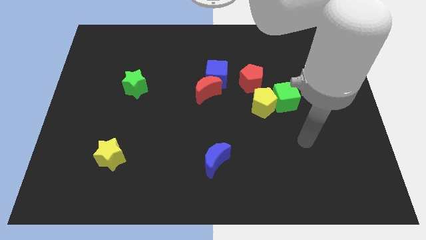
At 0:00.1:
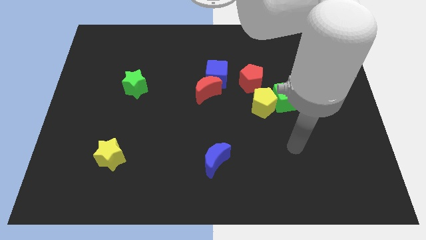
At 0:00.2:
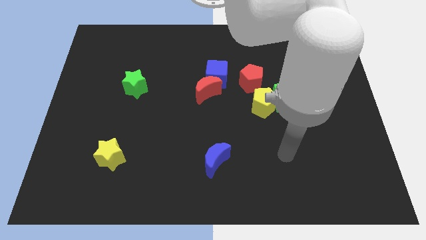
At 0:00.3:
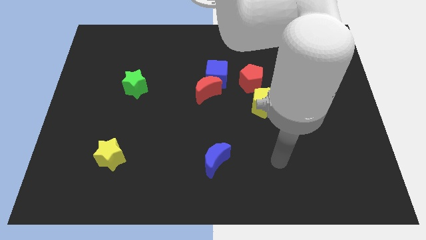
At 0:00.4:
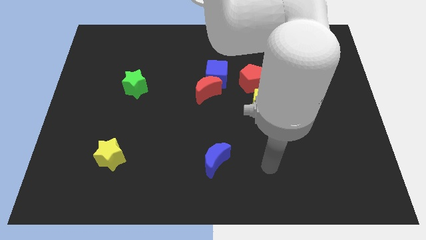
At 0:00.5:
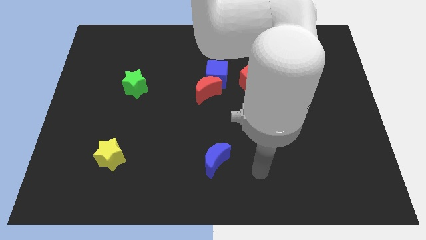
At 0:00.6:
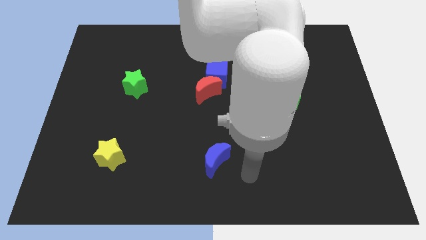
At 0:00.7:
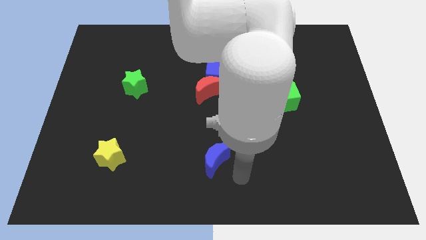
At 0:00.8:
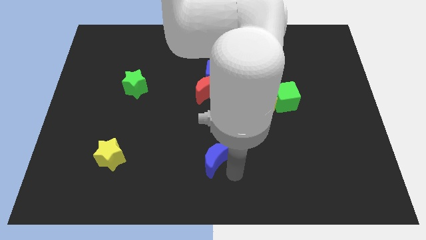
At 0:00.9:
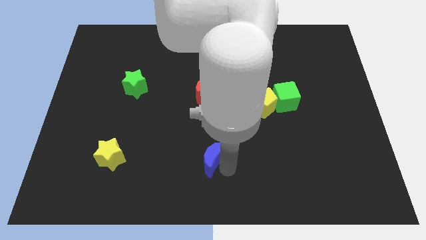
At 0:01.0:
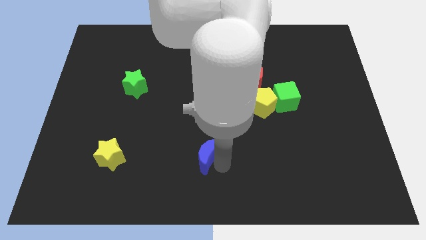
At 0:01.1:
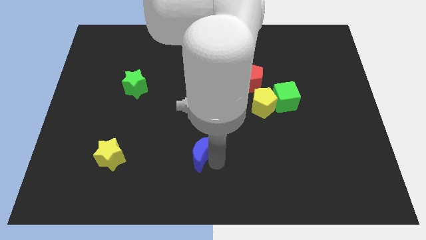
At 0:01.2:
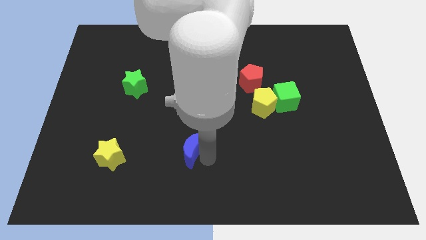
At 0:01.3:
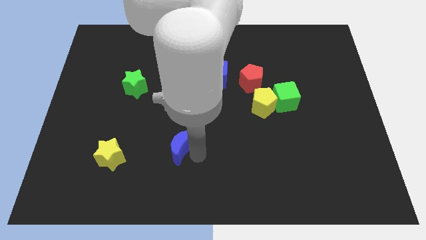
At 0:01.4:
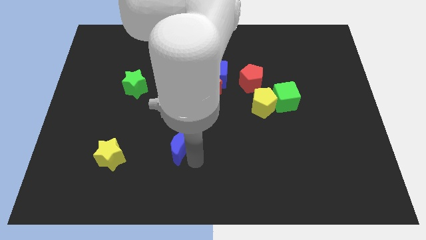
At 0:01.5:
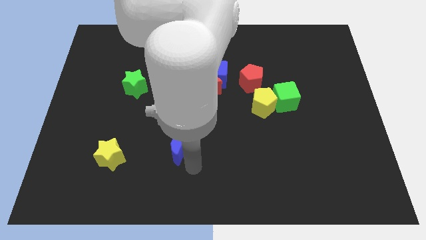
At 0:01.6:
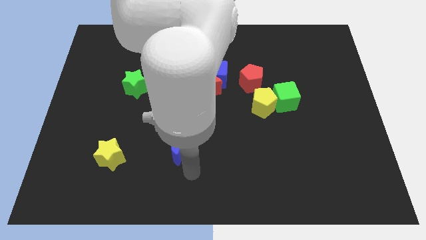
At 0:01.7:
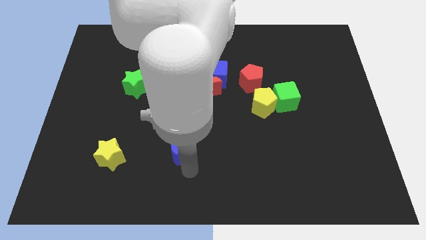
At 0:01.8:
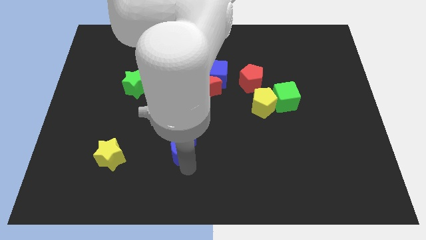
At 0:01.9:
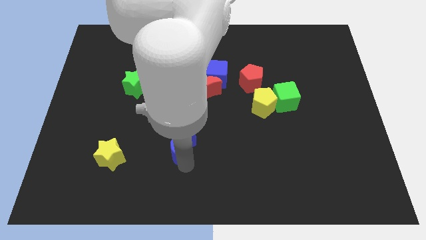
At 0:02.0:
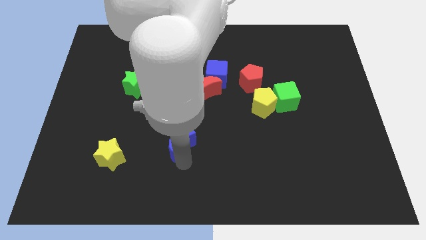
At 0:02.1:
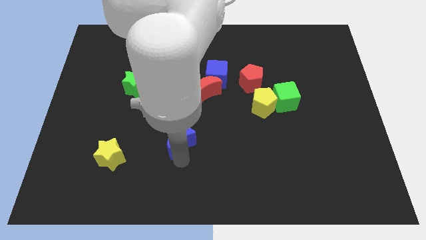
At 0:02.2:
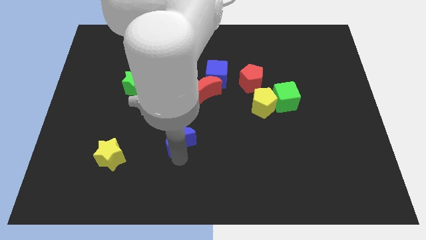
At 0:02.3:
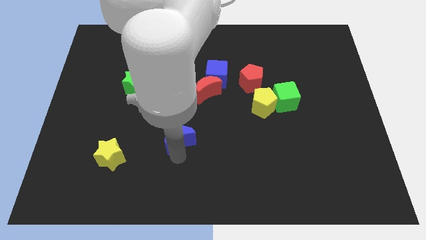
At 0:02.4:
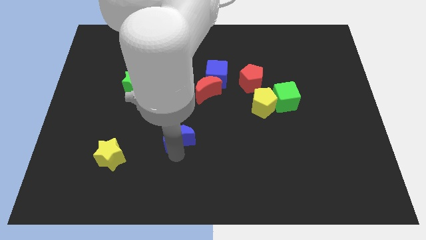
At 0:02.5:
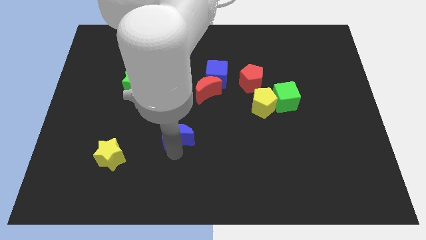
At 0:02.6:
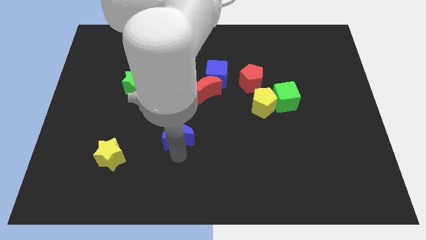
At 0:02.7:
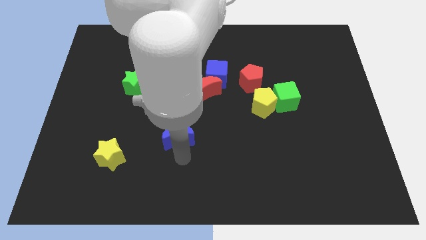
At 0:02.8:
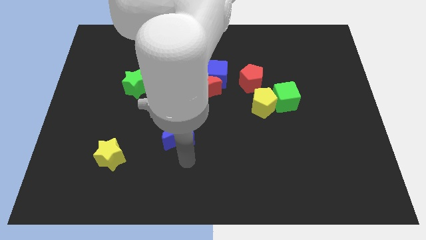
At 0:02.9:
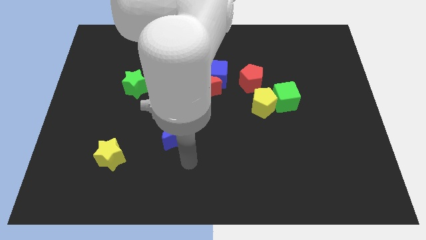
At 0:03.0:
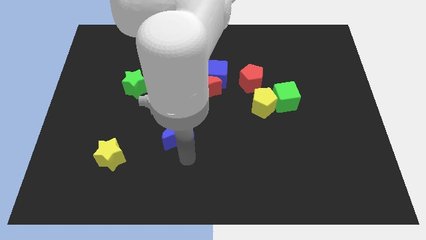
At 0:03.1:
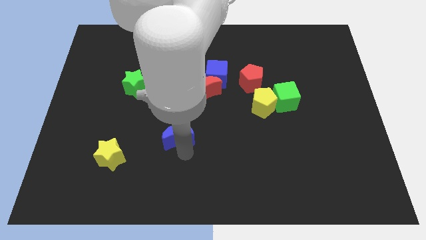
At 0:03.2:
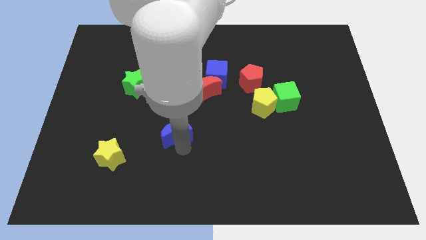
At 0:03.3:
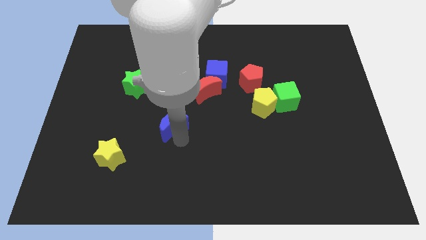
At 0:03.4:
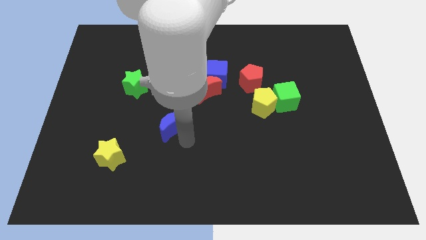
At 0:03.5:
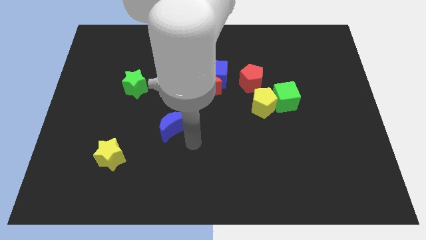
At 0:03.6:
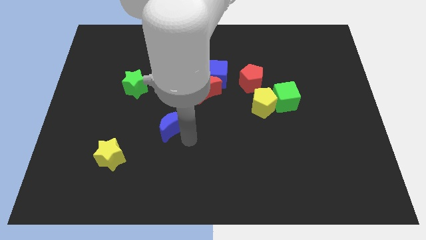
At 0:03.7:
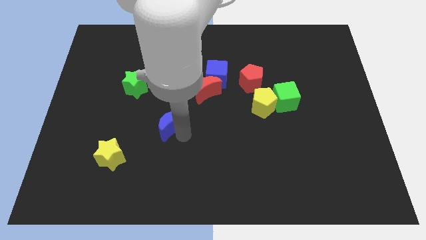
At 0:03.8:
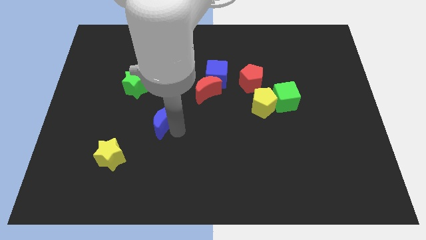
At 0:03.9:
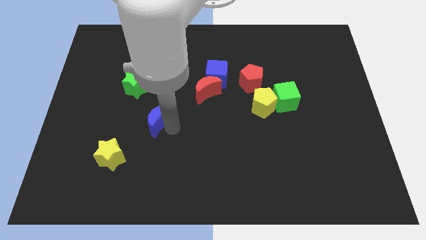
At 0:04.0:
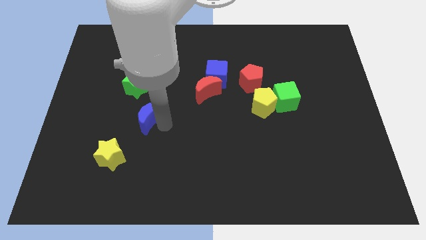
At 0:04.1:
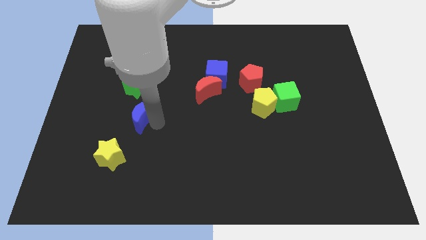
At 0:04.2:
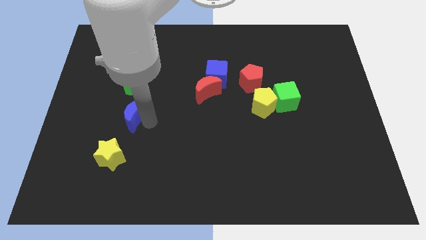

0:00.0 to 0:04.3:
move the blue moon diagonally up and left

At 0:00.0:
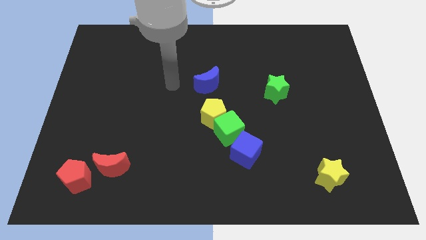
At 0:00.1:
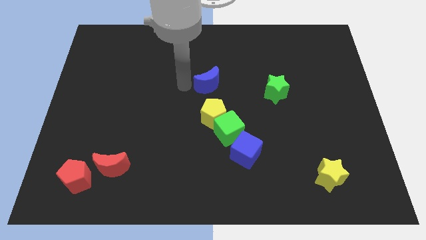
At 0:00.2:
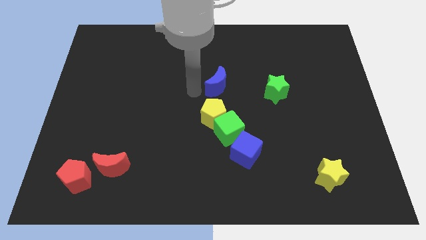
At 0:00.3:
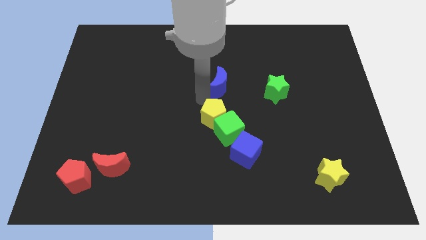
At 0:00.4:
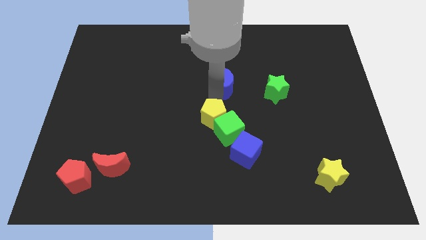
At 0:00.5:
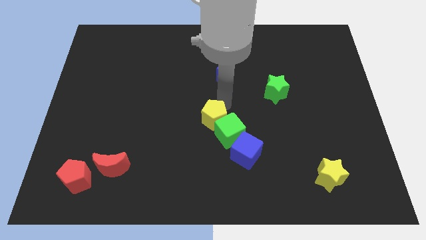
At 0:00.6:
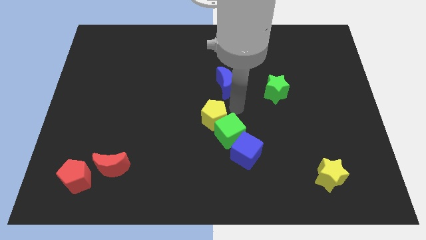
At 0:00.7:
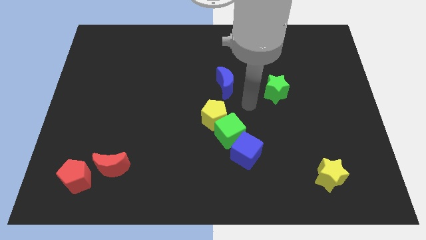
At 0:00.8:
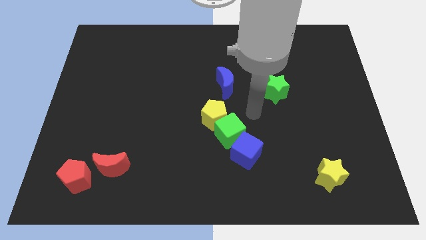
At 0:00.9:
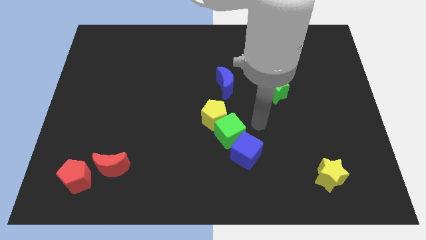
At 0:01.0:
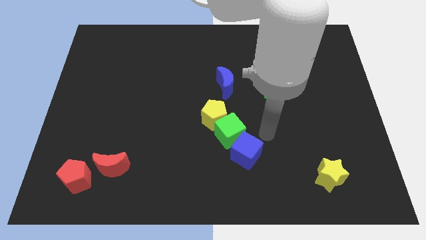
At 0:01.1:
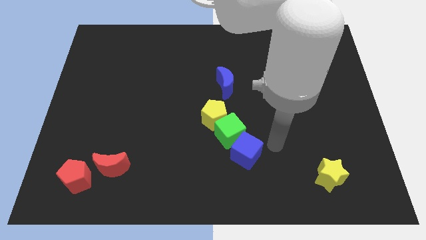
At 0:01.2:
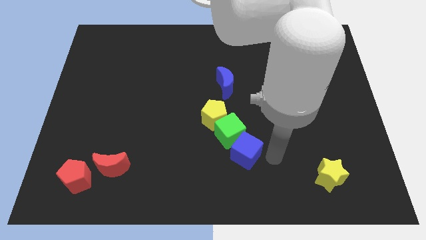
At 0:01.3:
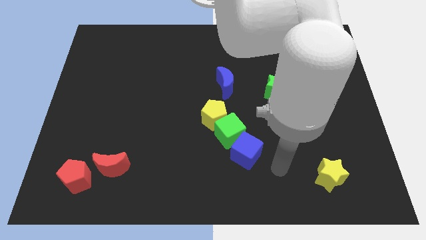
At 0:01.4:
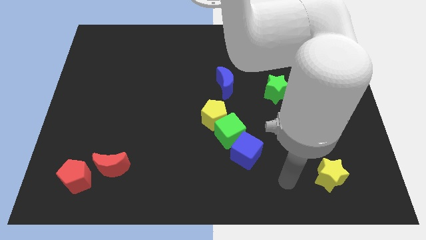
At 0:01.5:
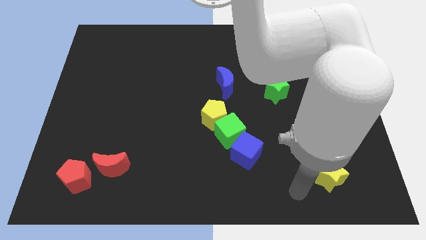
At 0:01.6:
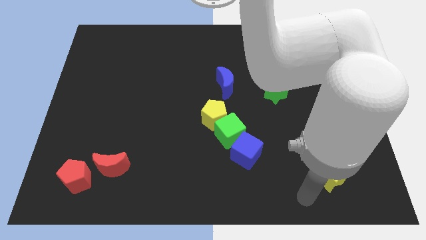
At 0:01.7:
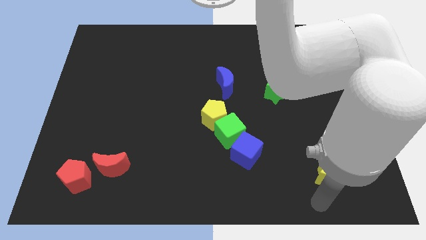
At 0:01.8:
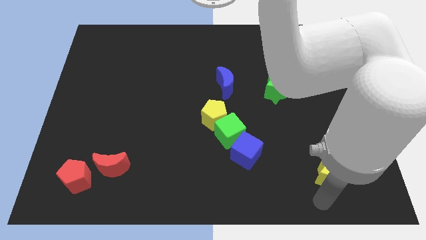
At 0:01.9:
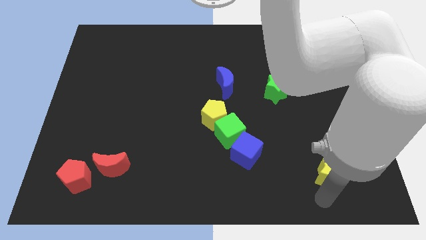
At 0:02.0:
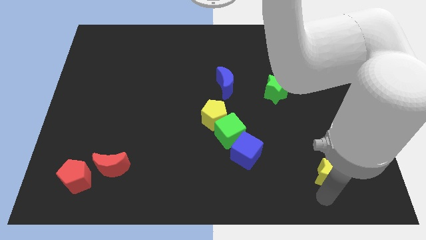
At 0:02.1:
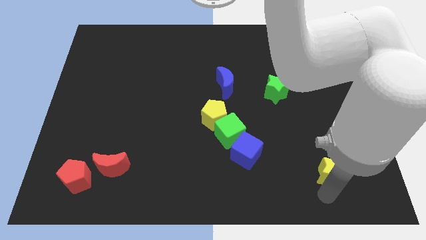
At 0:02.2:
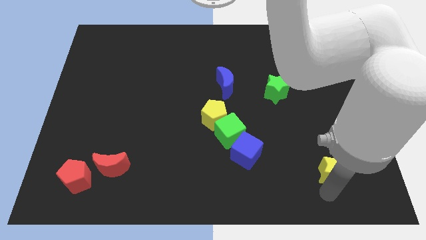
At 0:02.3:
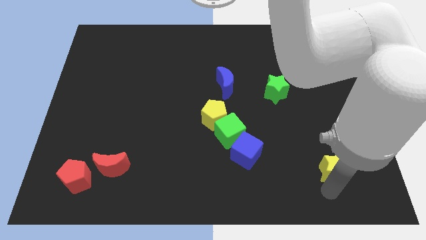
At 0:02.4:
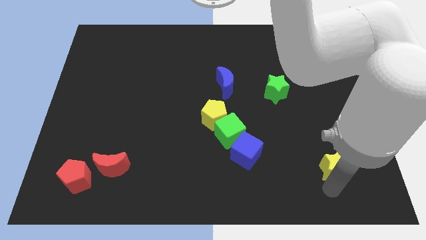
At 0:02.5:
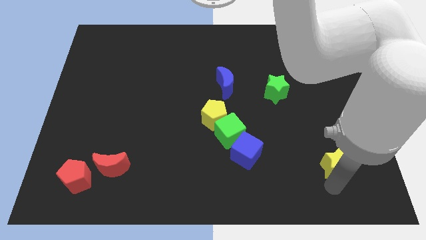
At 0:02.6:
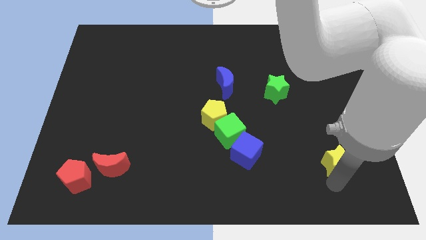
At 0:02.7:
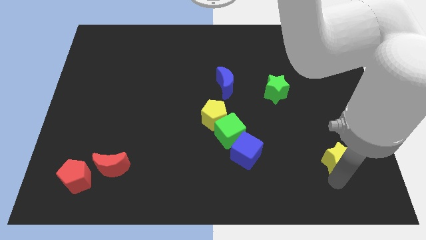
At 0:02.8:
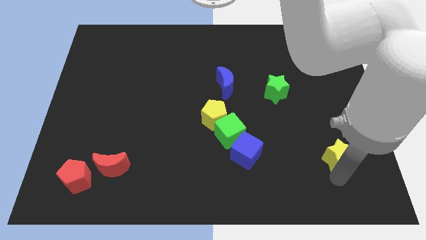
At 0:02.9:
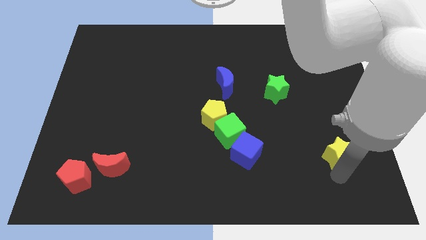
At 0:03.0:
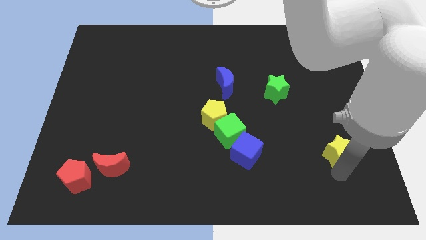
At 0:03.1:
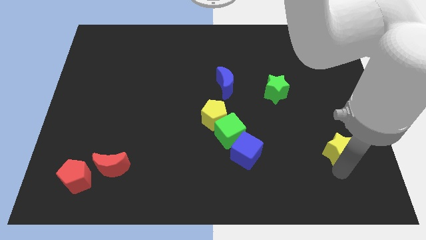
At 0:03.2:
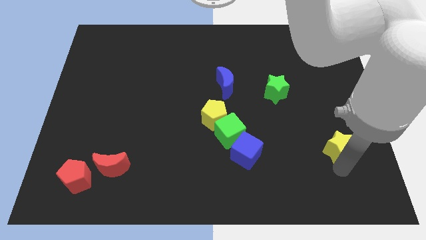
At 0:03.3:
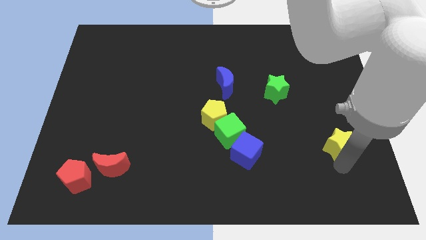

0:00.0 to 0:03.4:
move the yellow star somewhat upwards

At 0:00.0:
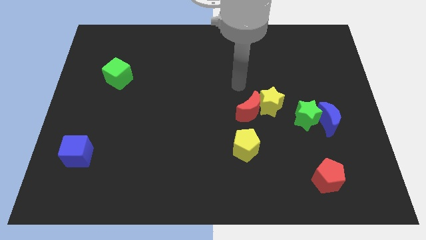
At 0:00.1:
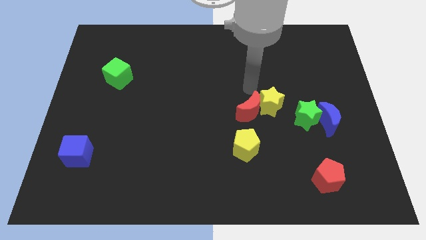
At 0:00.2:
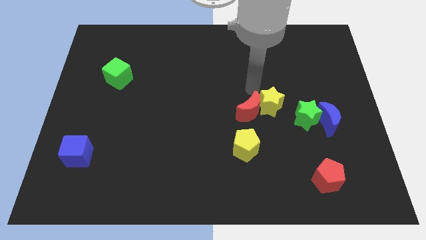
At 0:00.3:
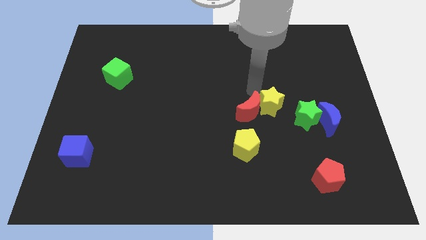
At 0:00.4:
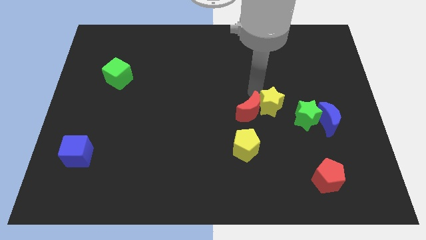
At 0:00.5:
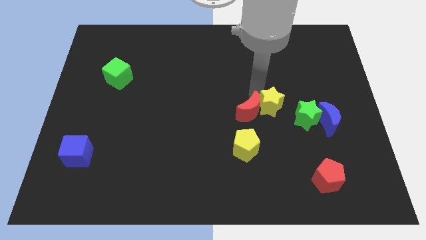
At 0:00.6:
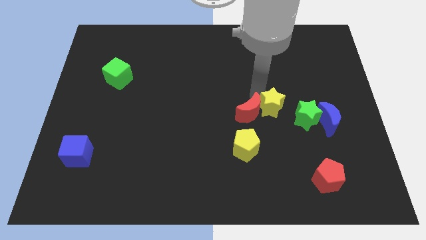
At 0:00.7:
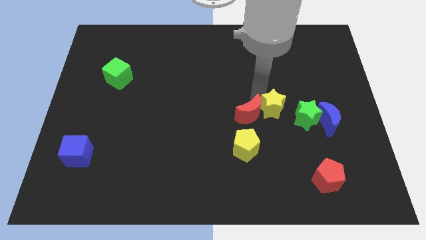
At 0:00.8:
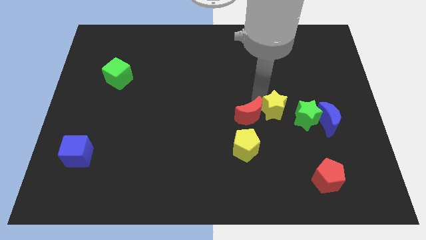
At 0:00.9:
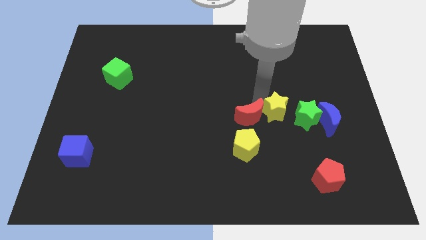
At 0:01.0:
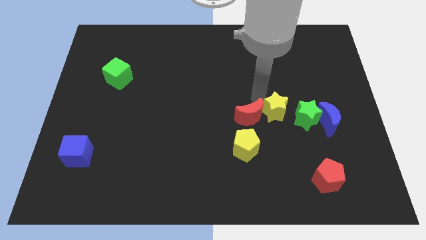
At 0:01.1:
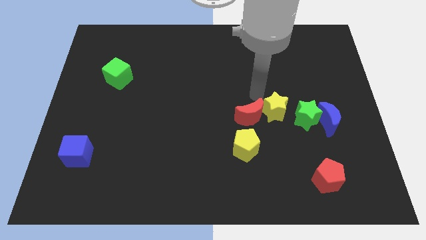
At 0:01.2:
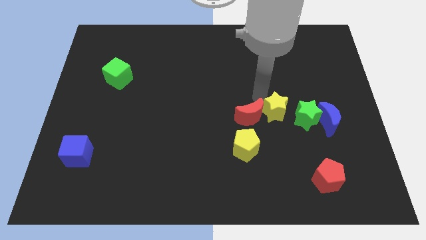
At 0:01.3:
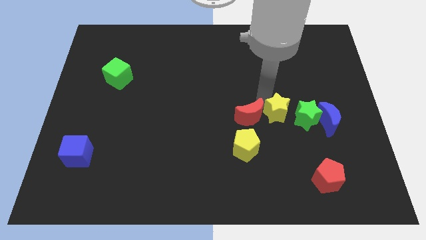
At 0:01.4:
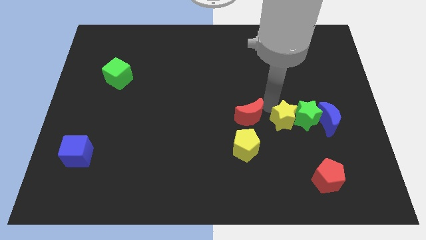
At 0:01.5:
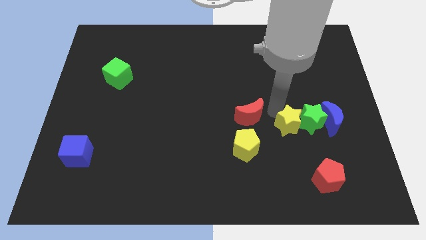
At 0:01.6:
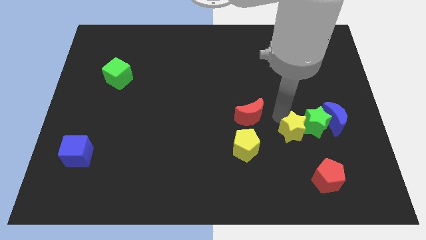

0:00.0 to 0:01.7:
slightly push the yellow star down and then to the right
